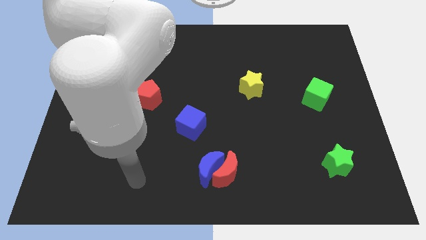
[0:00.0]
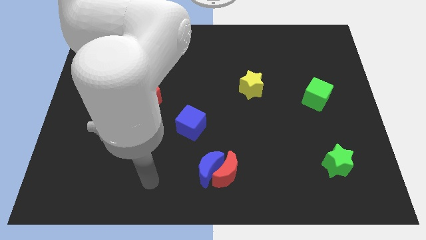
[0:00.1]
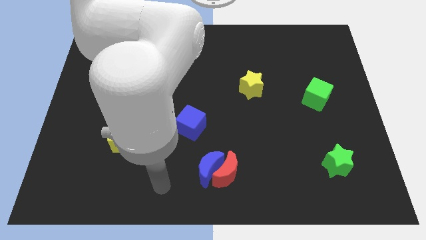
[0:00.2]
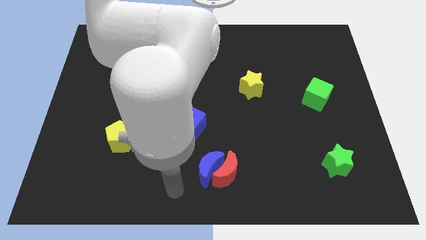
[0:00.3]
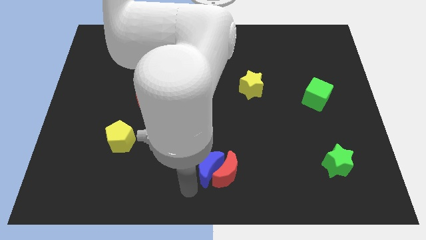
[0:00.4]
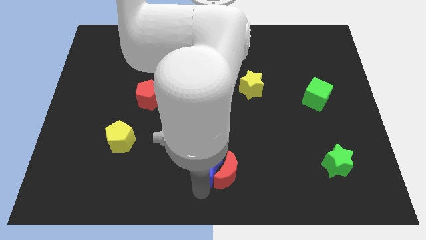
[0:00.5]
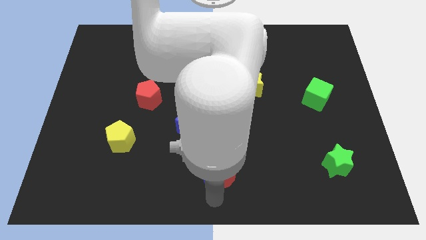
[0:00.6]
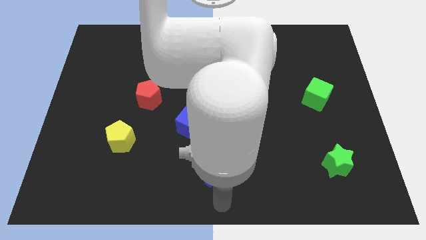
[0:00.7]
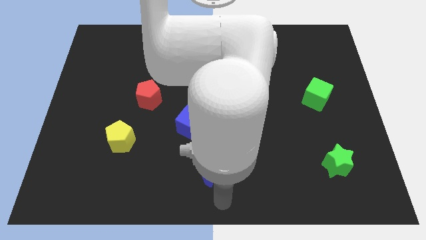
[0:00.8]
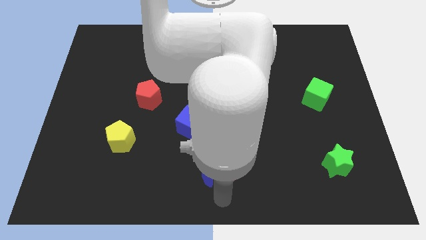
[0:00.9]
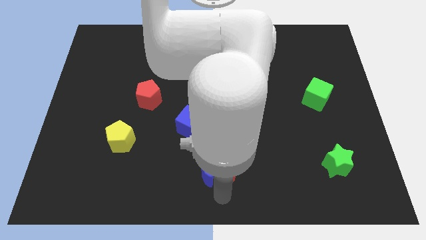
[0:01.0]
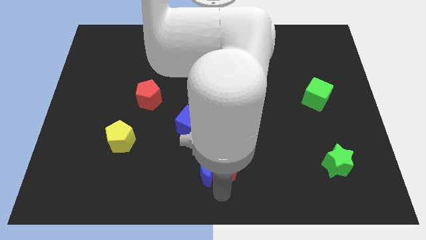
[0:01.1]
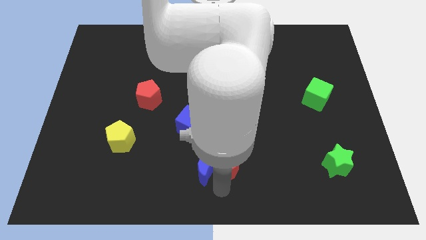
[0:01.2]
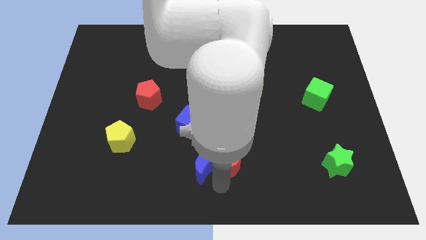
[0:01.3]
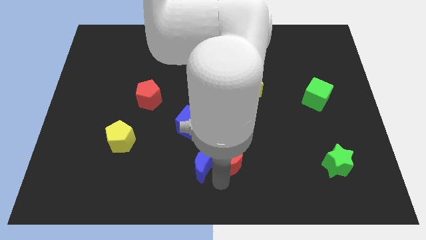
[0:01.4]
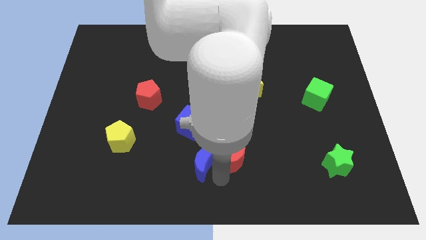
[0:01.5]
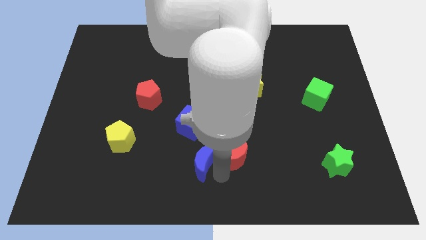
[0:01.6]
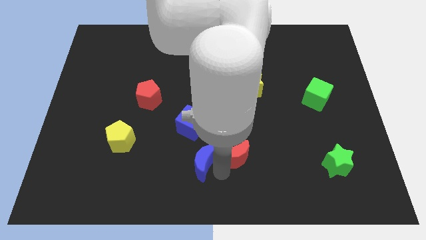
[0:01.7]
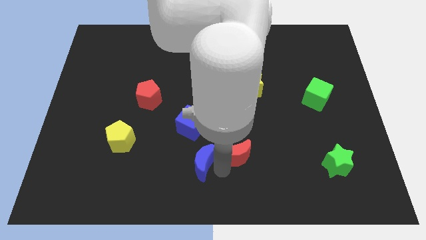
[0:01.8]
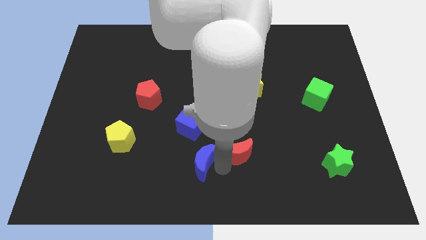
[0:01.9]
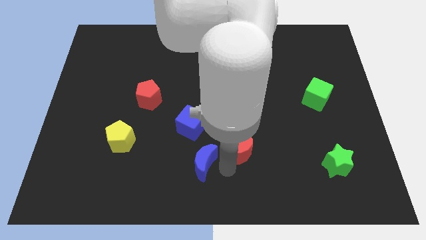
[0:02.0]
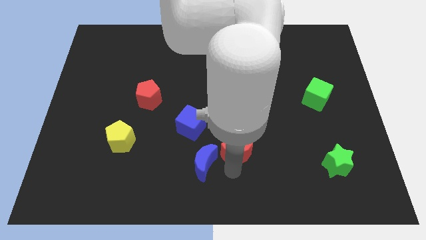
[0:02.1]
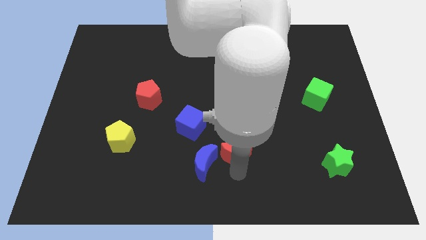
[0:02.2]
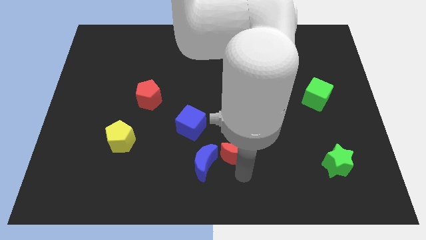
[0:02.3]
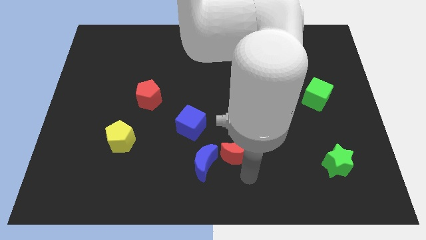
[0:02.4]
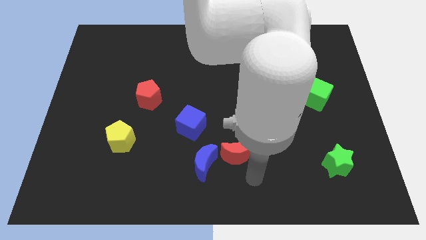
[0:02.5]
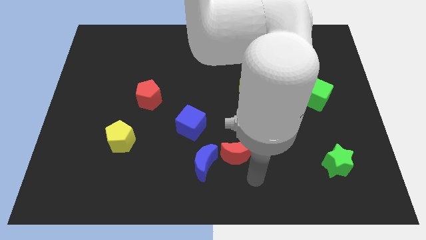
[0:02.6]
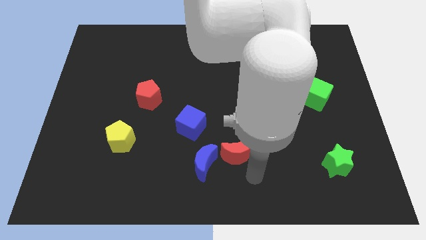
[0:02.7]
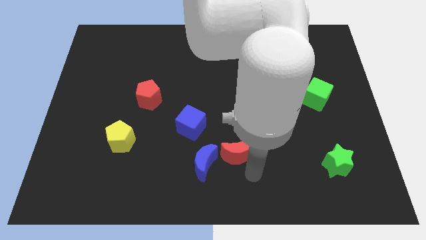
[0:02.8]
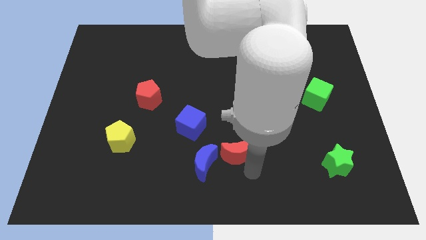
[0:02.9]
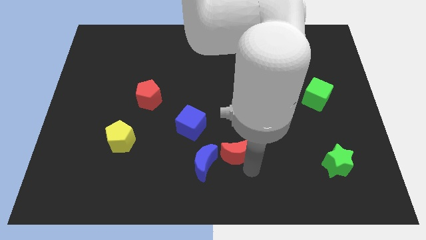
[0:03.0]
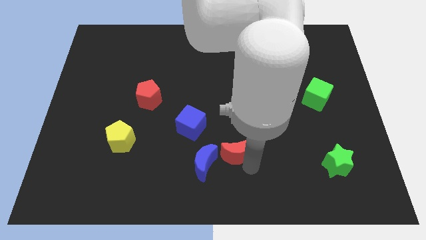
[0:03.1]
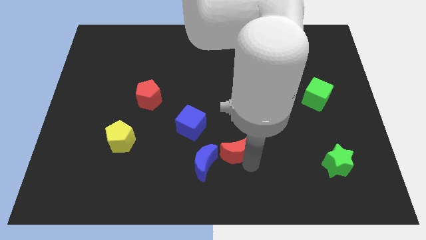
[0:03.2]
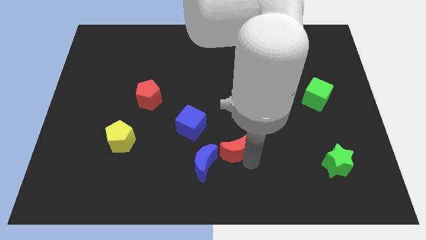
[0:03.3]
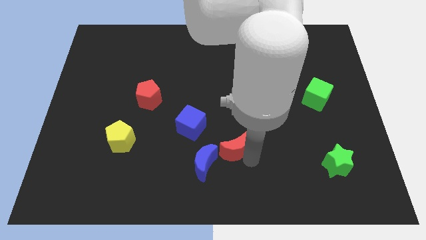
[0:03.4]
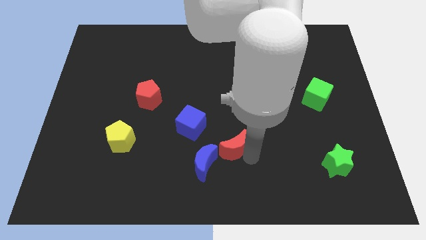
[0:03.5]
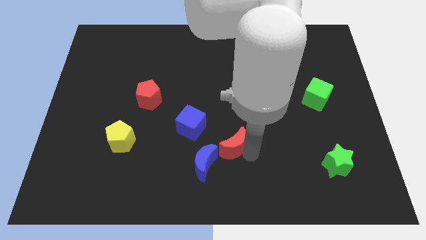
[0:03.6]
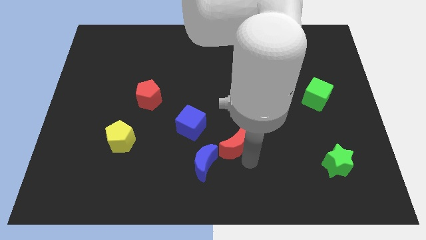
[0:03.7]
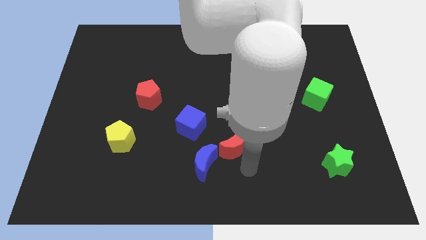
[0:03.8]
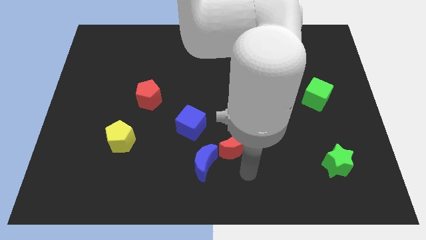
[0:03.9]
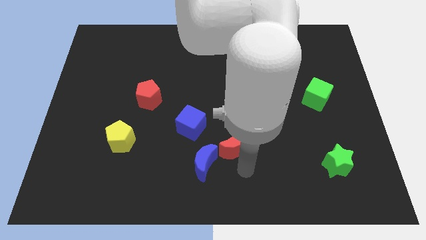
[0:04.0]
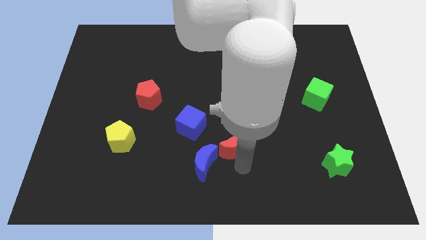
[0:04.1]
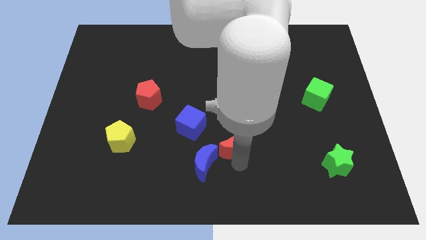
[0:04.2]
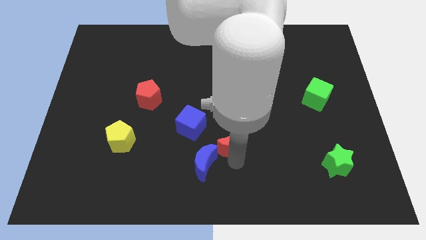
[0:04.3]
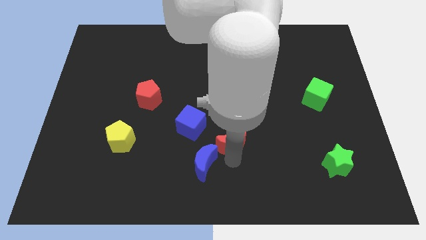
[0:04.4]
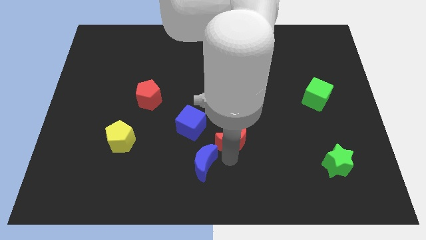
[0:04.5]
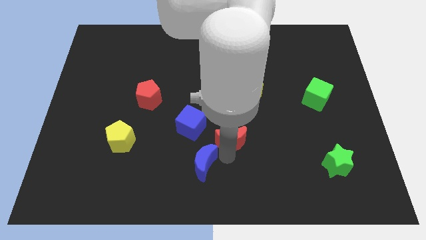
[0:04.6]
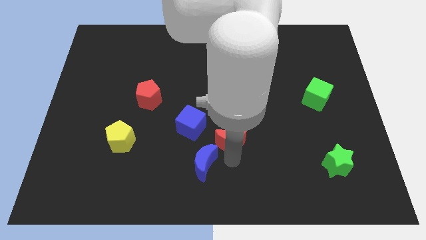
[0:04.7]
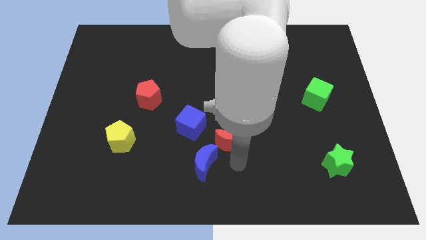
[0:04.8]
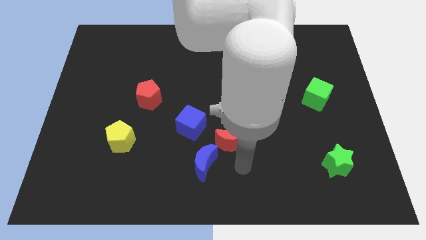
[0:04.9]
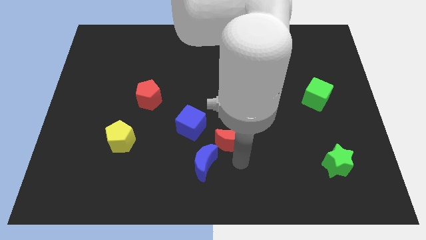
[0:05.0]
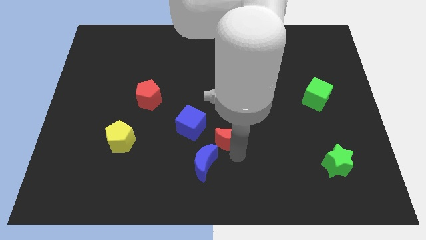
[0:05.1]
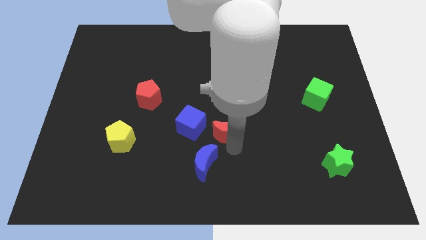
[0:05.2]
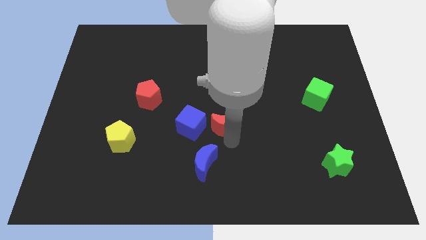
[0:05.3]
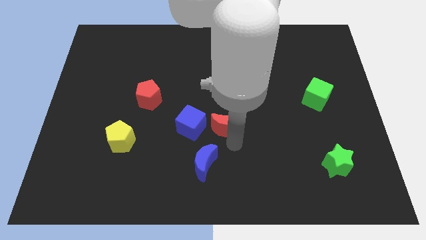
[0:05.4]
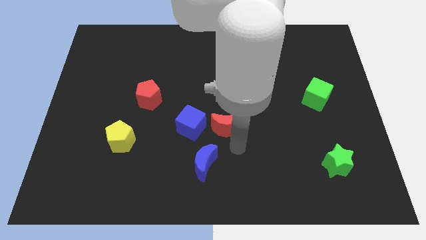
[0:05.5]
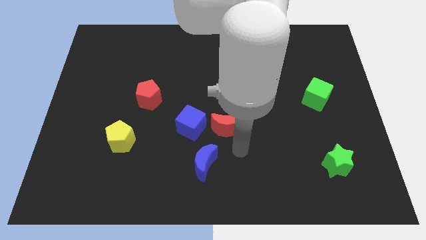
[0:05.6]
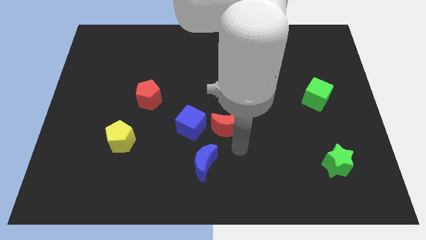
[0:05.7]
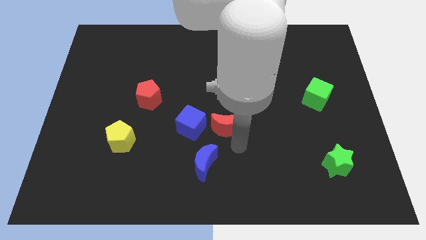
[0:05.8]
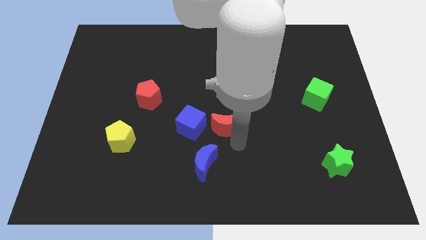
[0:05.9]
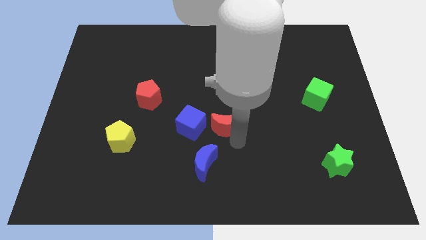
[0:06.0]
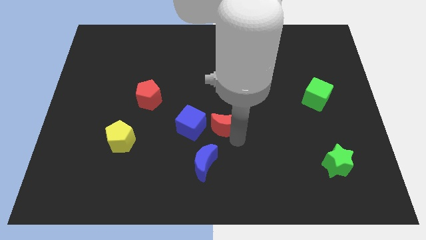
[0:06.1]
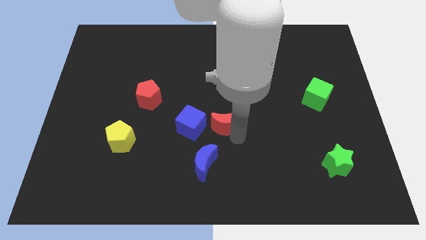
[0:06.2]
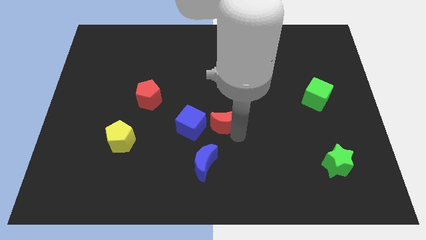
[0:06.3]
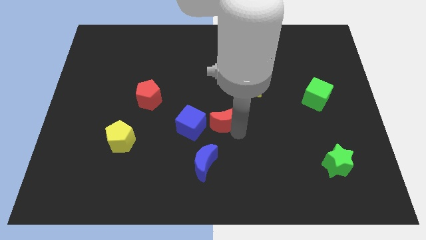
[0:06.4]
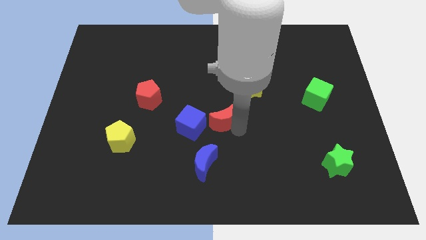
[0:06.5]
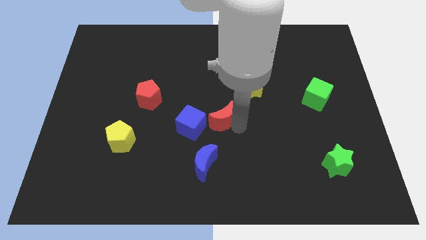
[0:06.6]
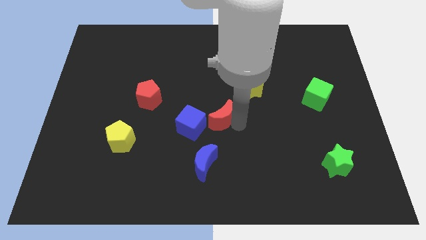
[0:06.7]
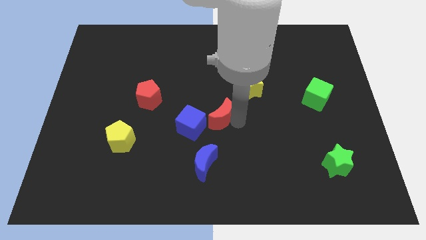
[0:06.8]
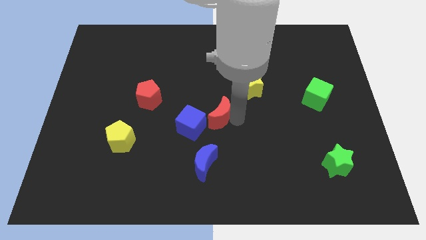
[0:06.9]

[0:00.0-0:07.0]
move the red moon a little up and left diagonally

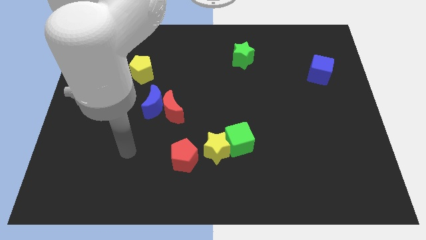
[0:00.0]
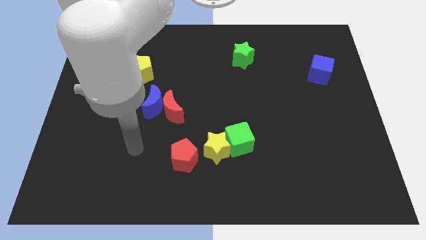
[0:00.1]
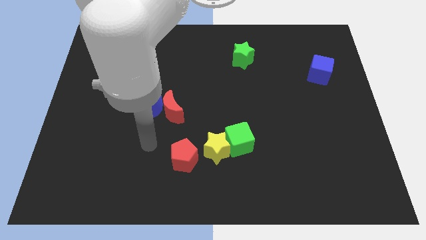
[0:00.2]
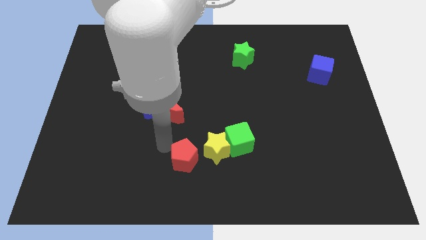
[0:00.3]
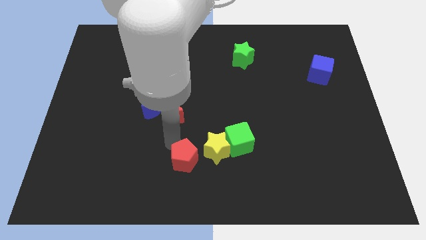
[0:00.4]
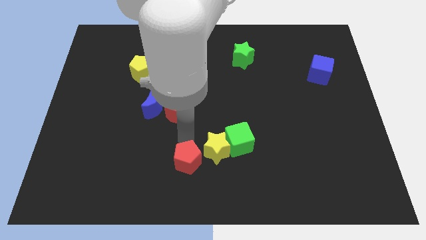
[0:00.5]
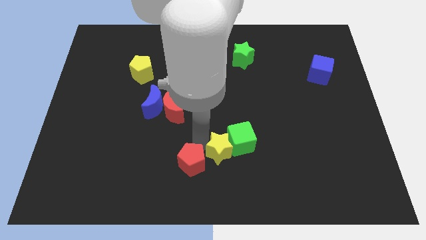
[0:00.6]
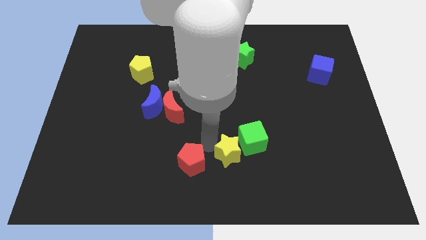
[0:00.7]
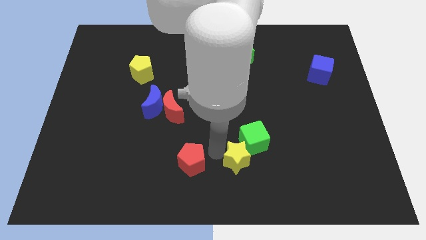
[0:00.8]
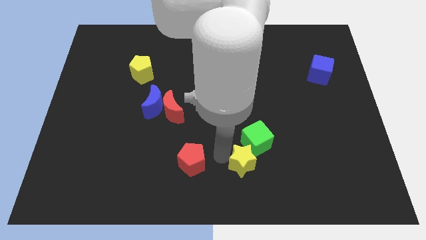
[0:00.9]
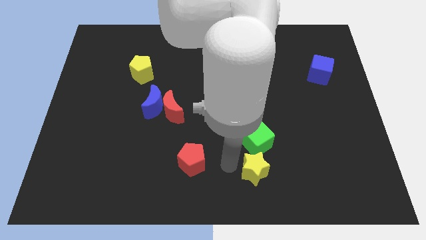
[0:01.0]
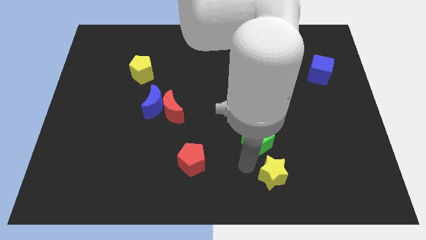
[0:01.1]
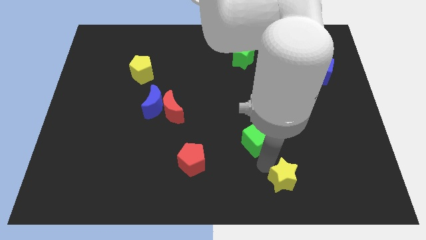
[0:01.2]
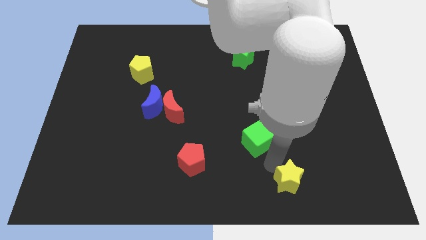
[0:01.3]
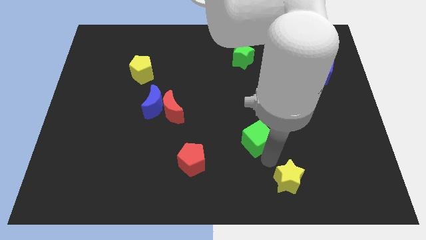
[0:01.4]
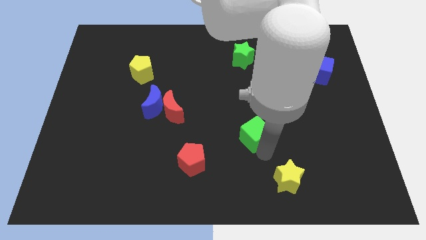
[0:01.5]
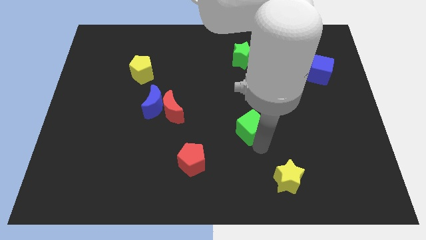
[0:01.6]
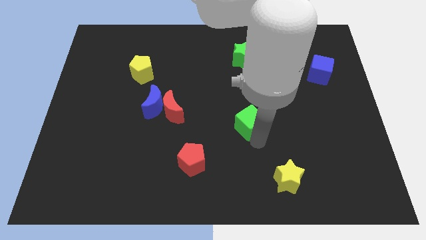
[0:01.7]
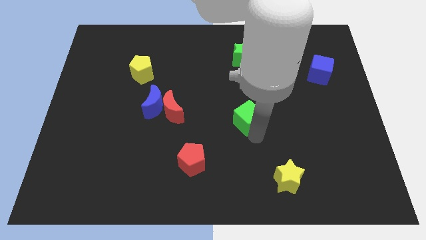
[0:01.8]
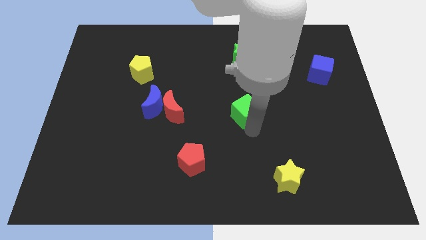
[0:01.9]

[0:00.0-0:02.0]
push the green cube up a bit
